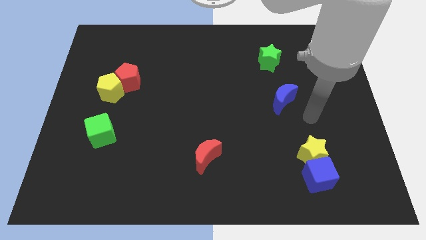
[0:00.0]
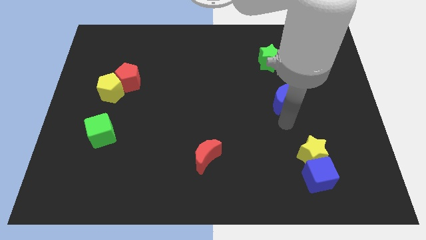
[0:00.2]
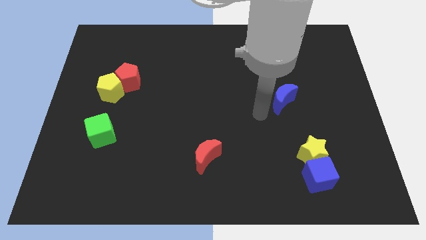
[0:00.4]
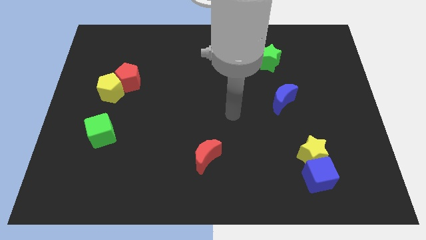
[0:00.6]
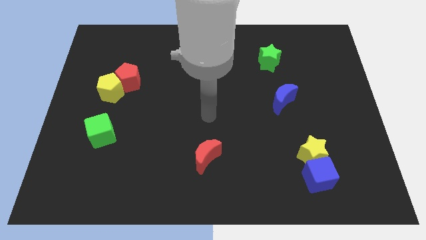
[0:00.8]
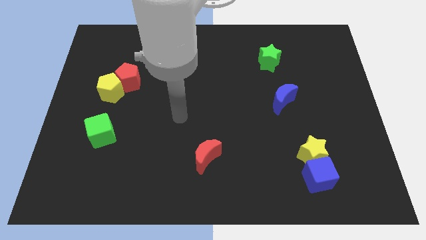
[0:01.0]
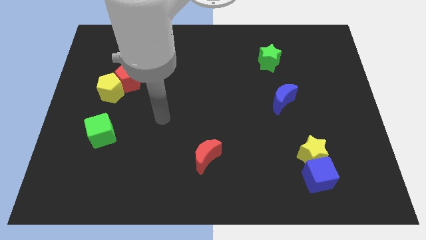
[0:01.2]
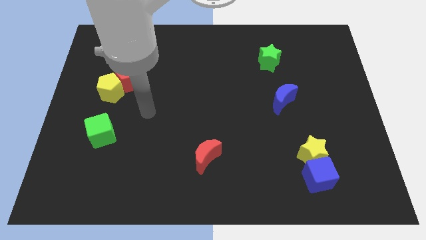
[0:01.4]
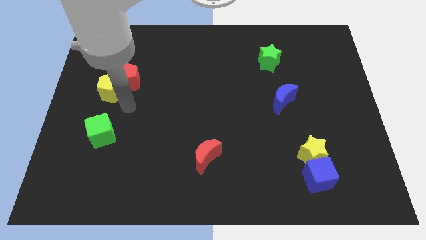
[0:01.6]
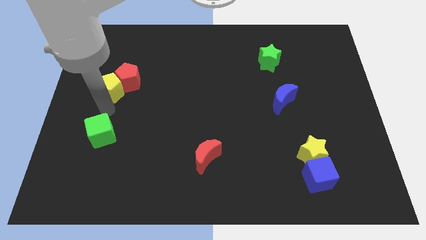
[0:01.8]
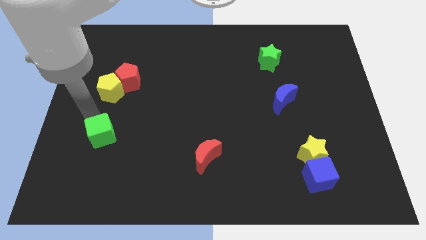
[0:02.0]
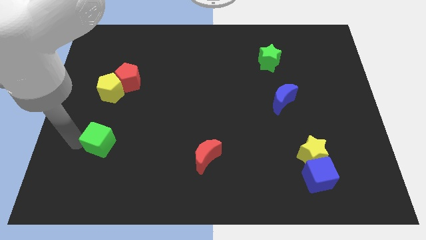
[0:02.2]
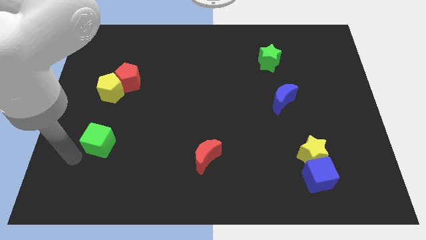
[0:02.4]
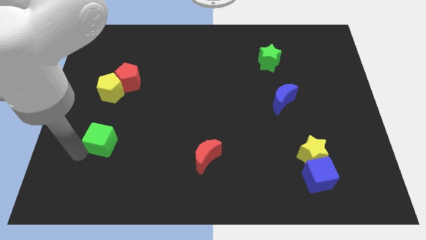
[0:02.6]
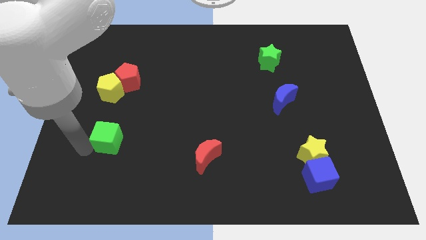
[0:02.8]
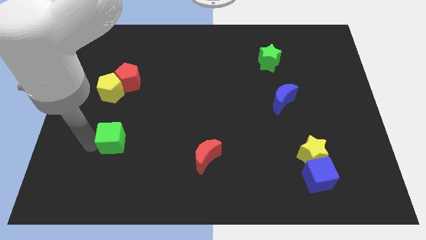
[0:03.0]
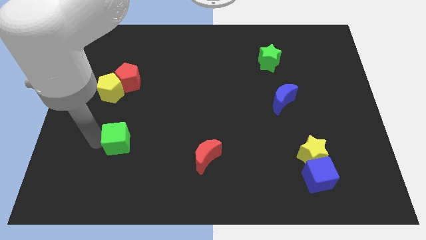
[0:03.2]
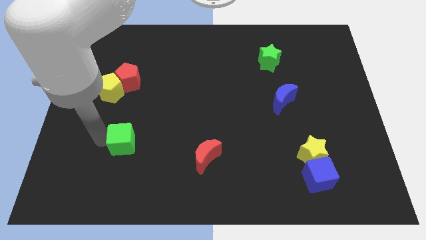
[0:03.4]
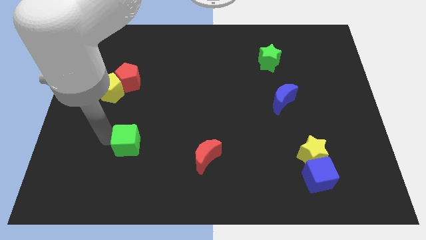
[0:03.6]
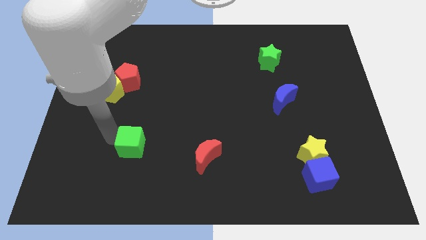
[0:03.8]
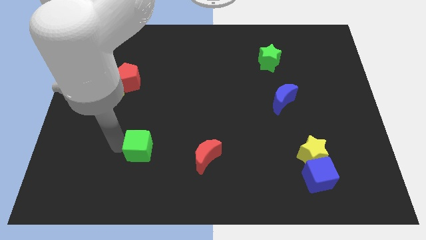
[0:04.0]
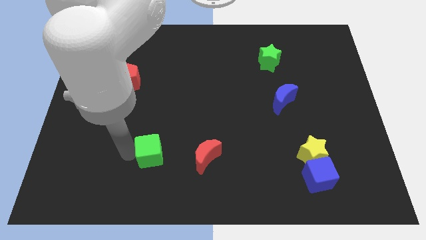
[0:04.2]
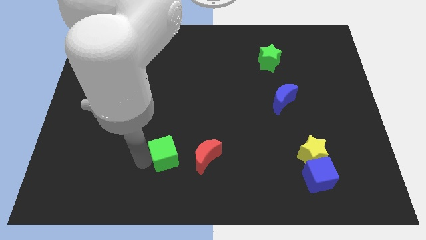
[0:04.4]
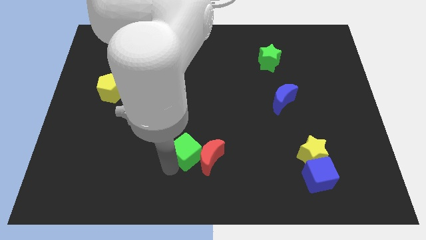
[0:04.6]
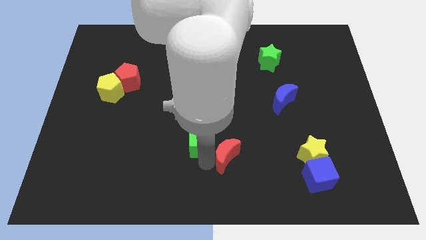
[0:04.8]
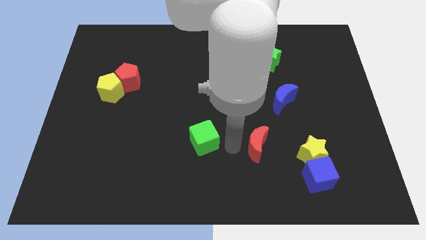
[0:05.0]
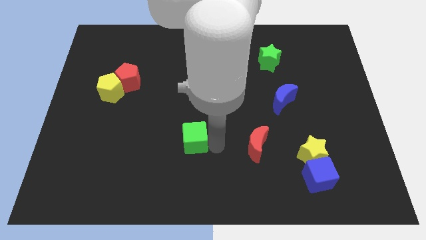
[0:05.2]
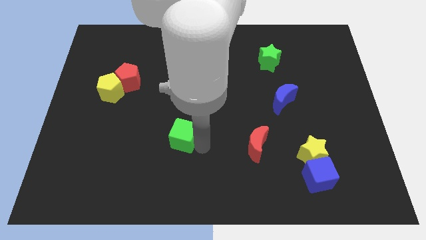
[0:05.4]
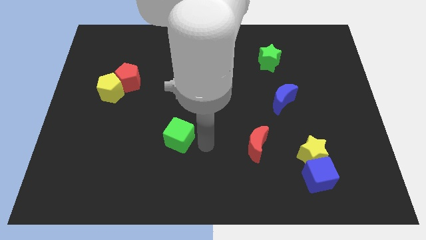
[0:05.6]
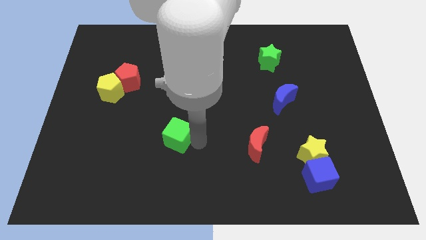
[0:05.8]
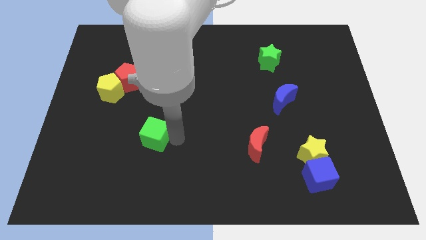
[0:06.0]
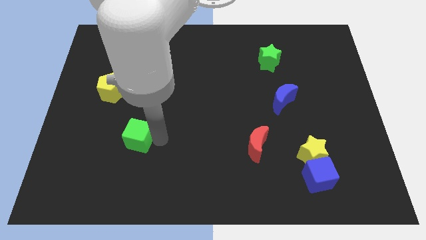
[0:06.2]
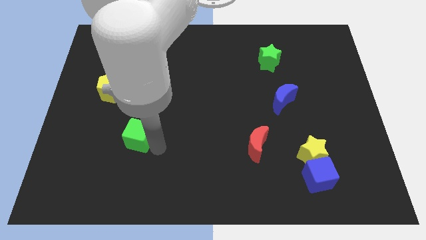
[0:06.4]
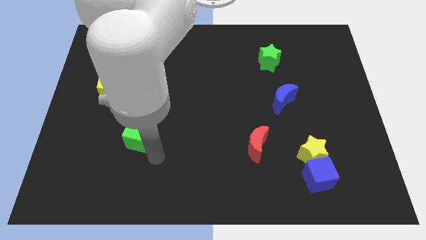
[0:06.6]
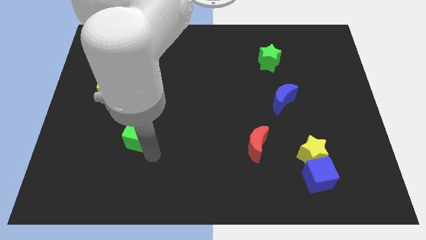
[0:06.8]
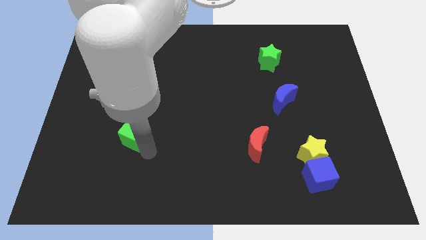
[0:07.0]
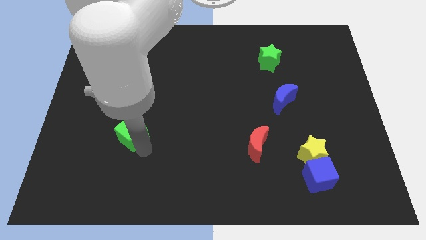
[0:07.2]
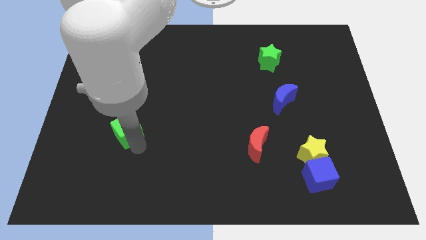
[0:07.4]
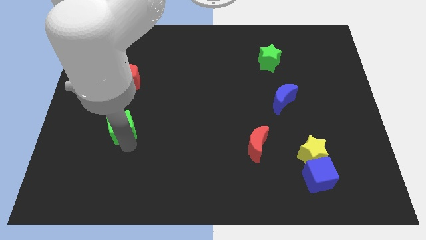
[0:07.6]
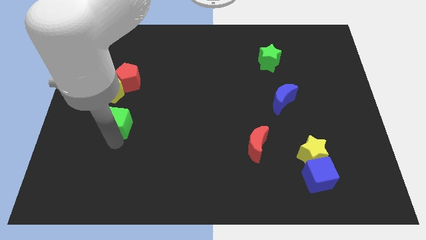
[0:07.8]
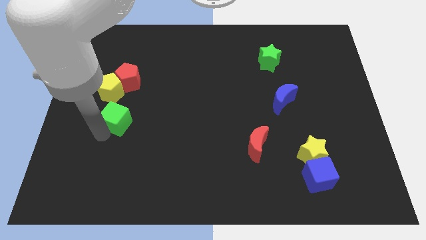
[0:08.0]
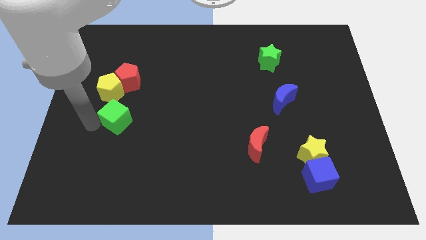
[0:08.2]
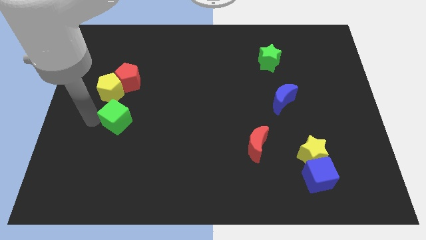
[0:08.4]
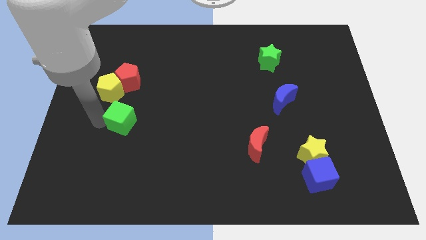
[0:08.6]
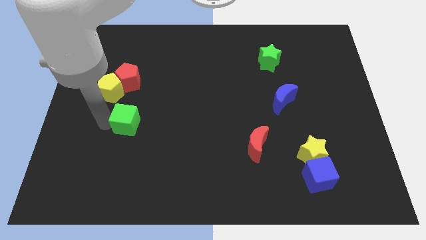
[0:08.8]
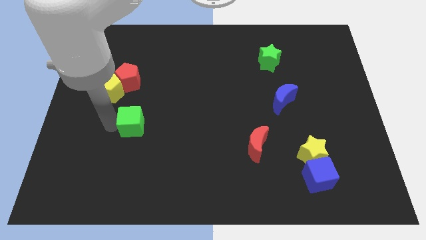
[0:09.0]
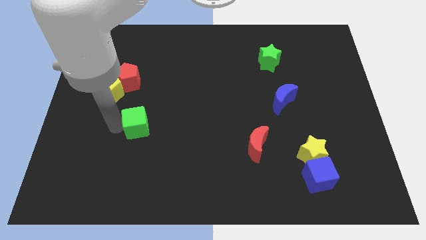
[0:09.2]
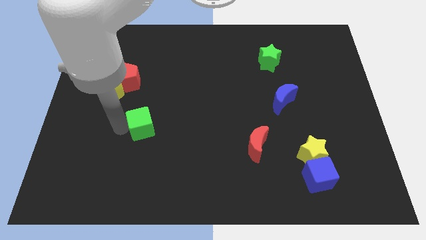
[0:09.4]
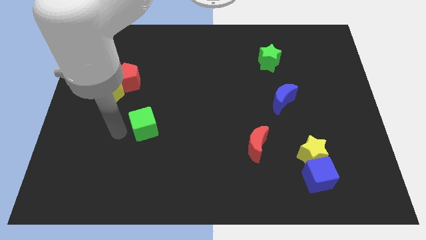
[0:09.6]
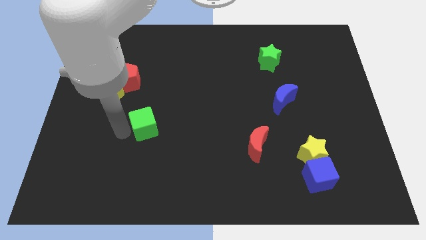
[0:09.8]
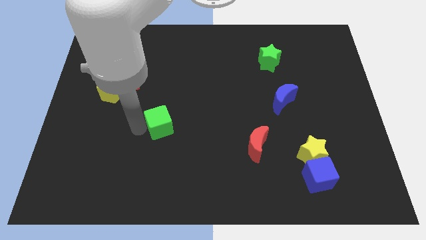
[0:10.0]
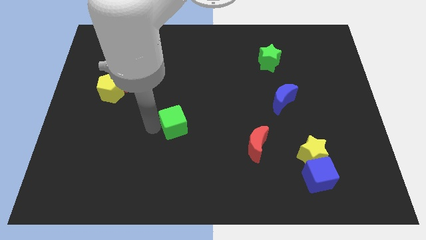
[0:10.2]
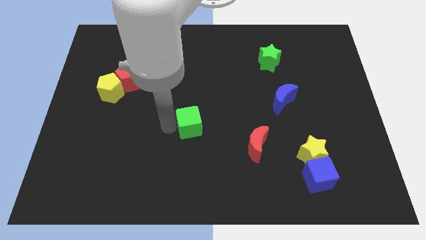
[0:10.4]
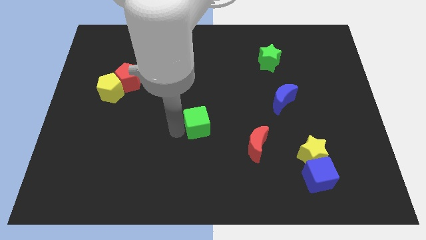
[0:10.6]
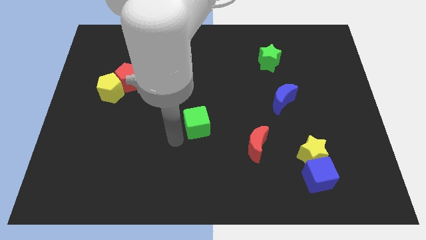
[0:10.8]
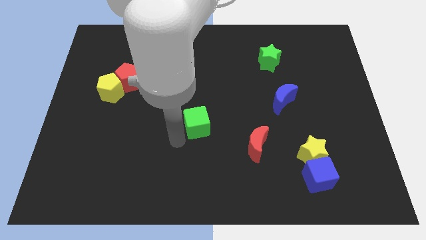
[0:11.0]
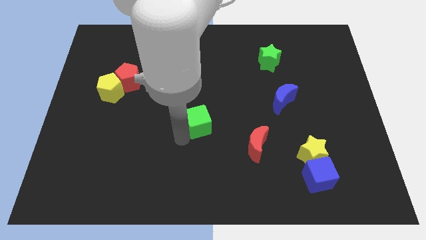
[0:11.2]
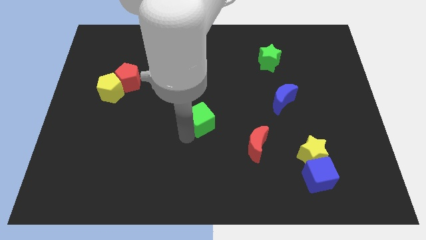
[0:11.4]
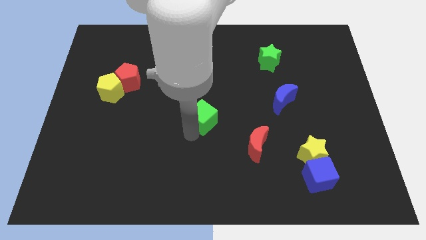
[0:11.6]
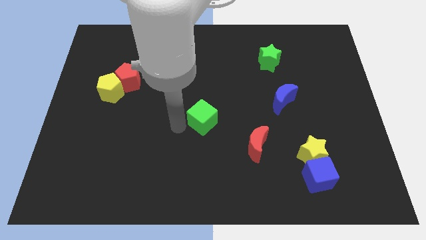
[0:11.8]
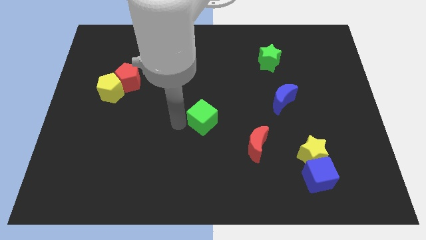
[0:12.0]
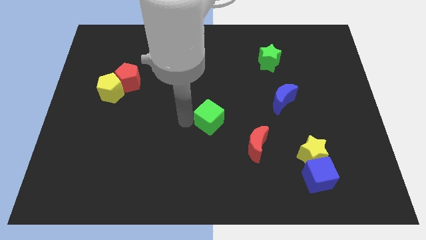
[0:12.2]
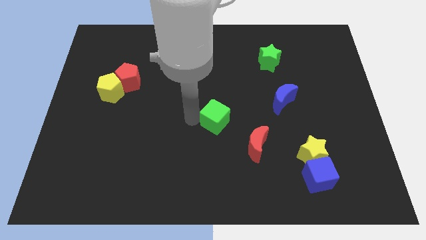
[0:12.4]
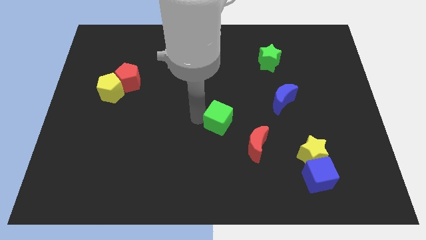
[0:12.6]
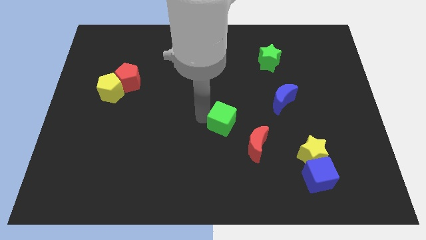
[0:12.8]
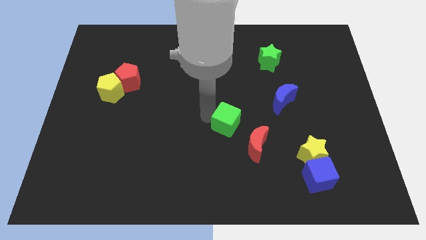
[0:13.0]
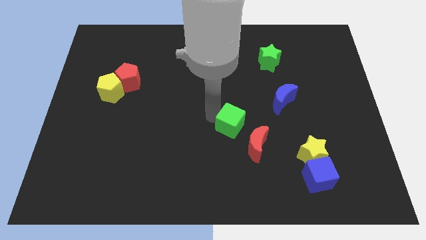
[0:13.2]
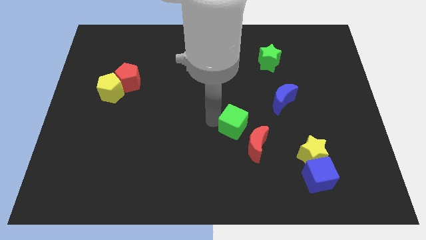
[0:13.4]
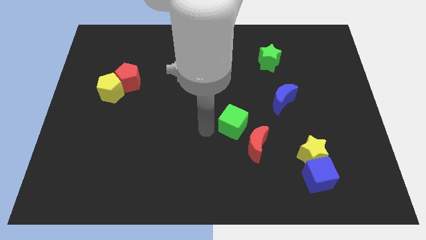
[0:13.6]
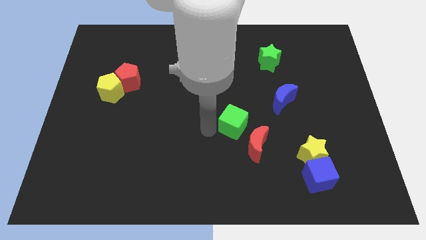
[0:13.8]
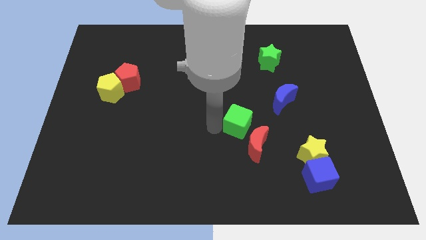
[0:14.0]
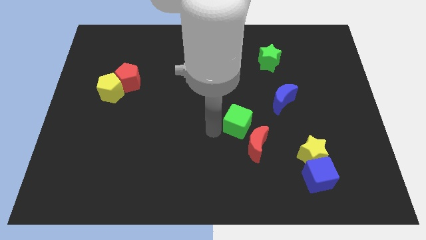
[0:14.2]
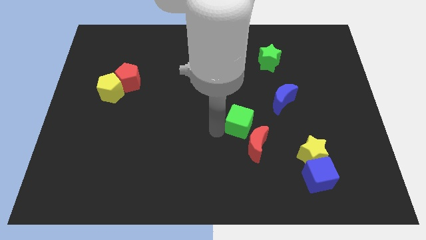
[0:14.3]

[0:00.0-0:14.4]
put the green cube to the bottom left side of the blue moon

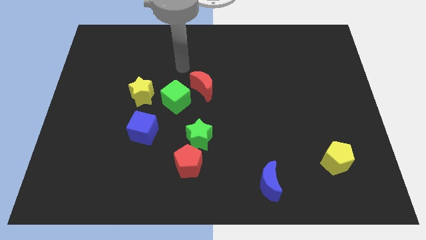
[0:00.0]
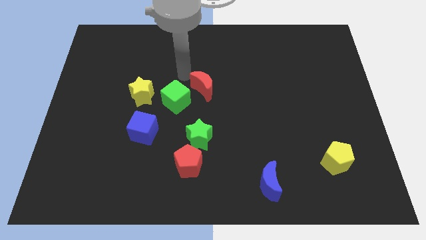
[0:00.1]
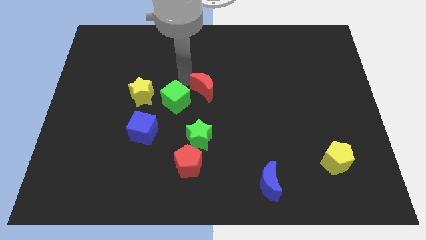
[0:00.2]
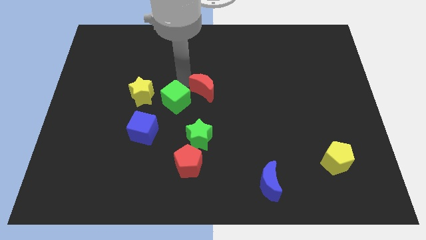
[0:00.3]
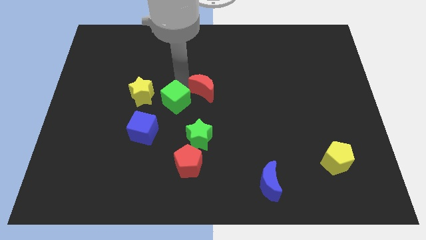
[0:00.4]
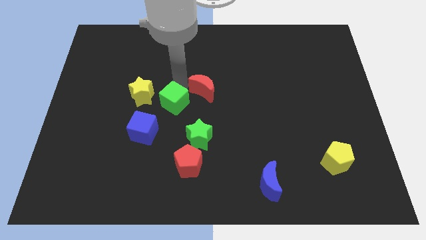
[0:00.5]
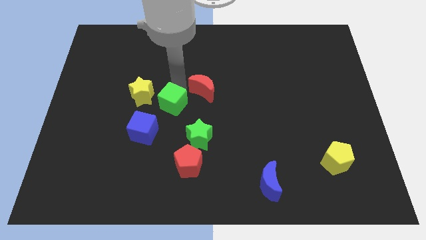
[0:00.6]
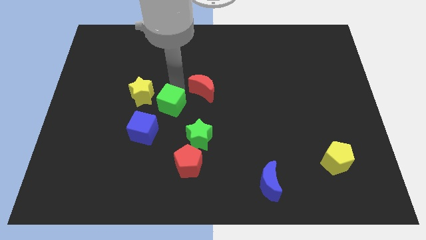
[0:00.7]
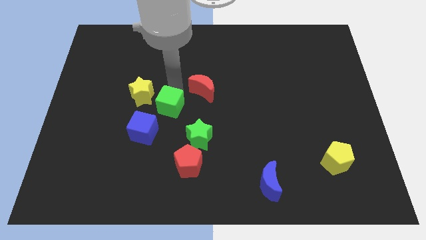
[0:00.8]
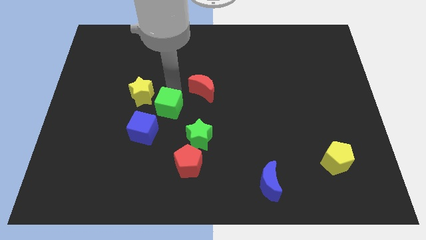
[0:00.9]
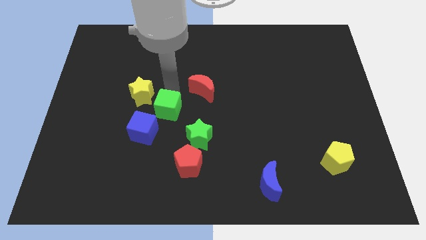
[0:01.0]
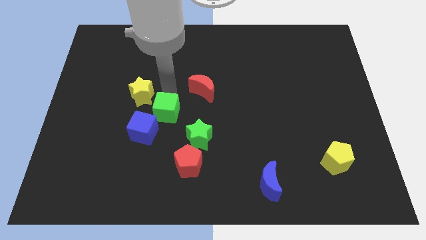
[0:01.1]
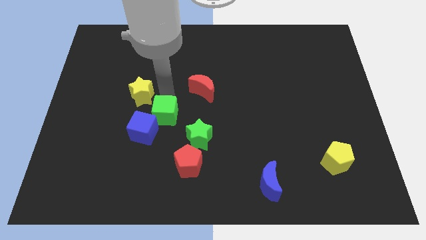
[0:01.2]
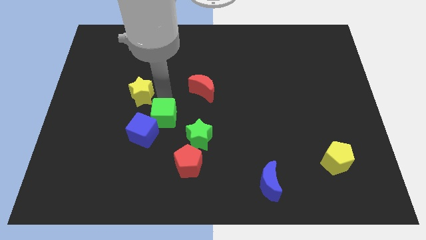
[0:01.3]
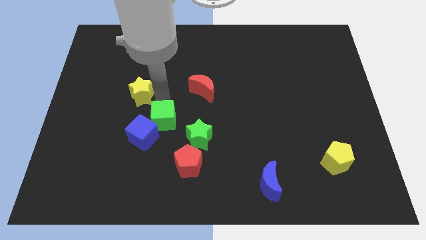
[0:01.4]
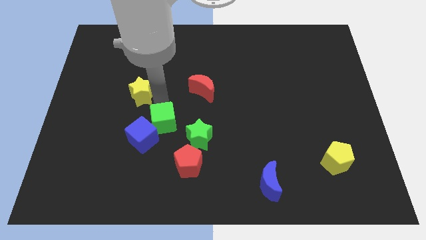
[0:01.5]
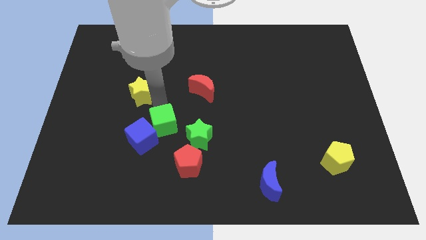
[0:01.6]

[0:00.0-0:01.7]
put the green cube diagonally up and to the left of the red pentagon
